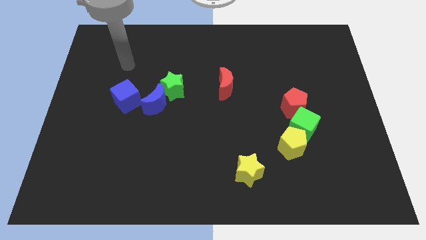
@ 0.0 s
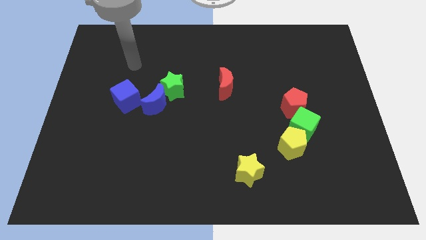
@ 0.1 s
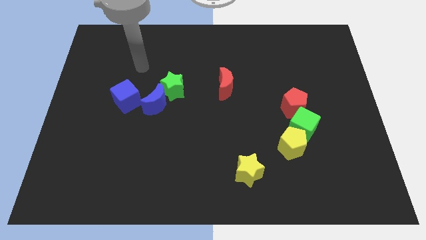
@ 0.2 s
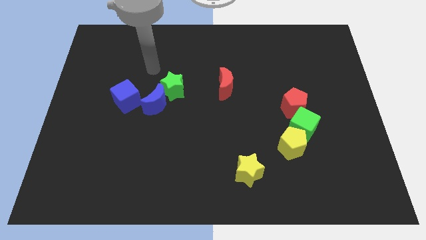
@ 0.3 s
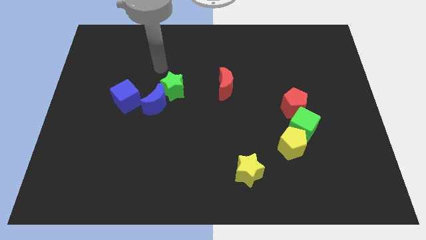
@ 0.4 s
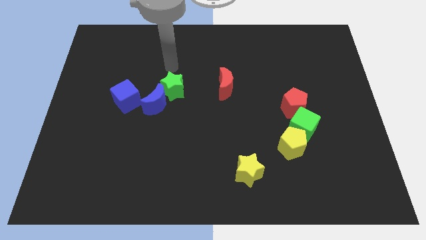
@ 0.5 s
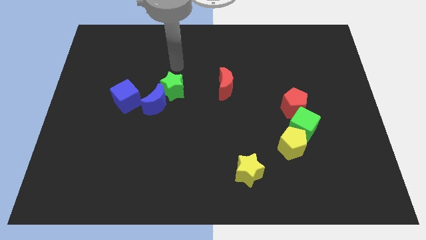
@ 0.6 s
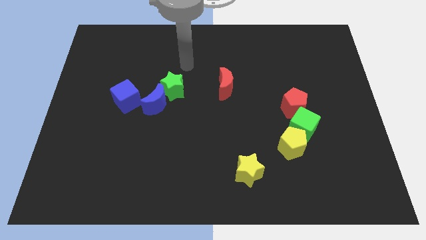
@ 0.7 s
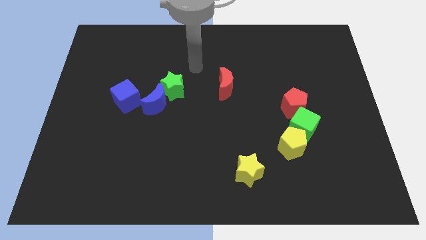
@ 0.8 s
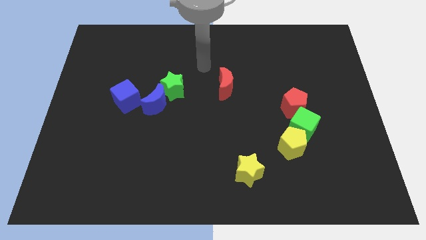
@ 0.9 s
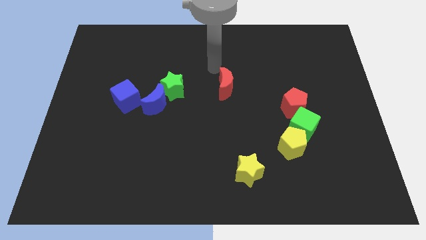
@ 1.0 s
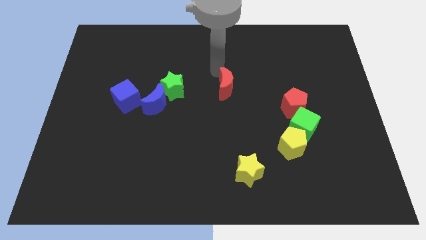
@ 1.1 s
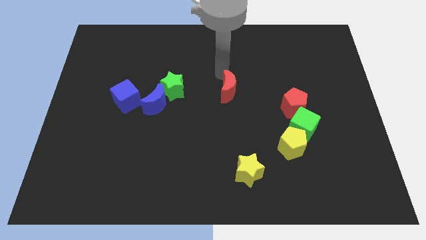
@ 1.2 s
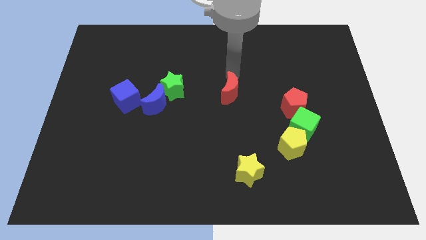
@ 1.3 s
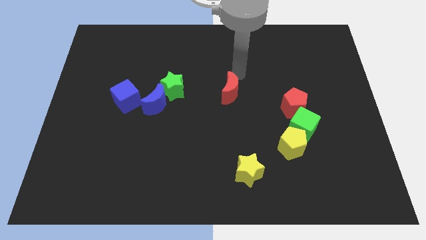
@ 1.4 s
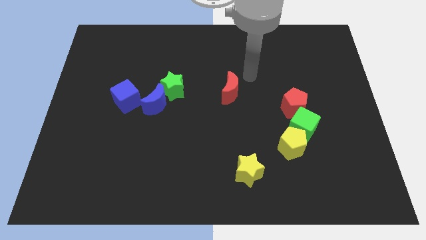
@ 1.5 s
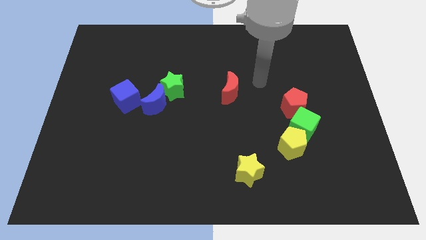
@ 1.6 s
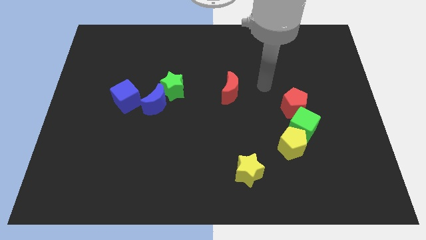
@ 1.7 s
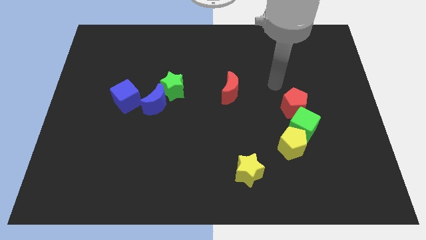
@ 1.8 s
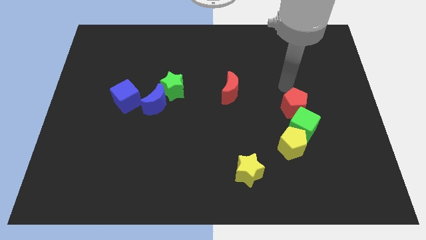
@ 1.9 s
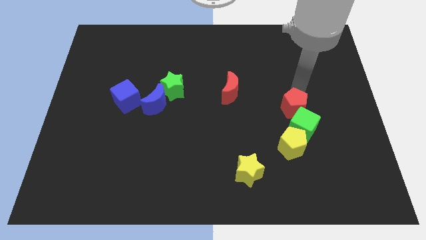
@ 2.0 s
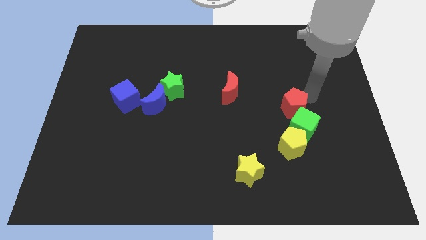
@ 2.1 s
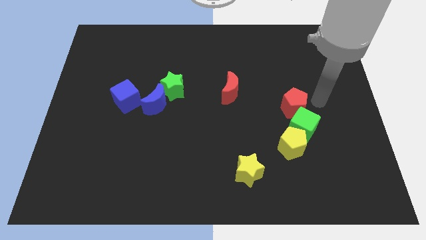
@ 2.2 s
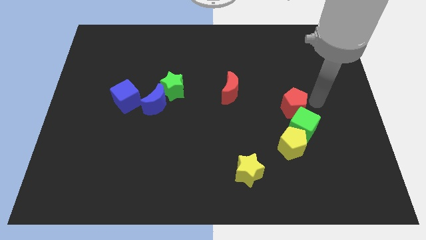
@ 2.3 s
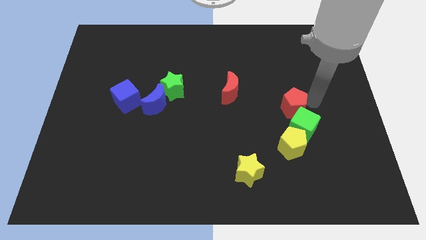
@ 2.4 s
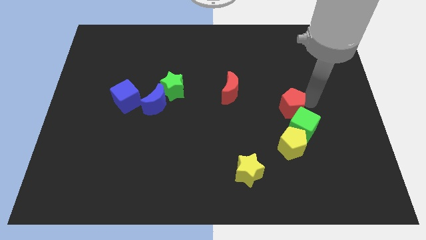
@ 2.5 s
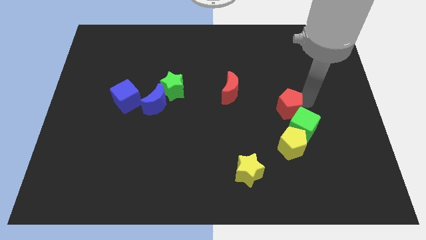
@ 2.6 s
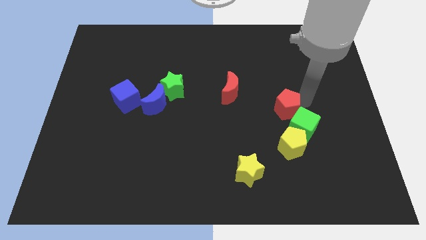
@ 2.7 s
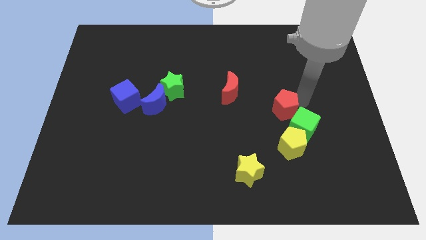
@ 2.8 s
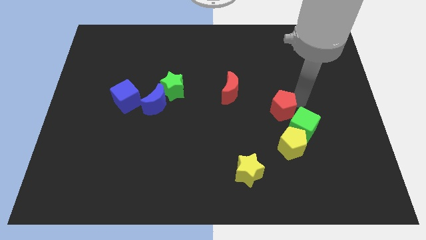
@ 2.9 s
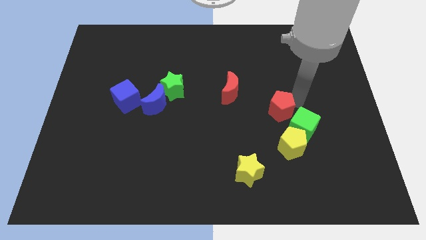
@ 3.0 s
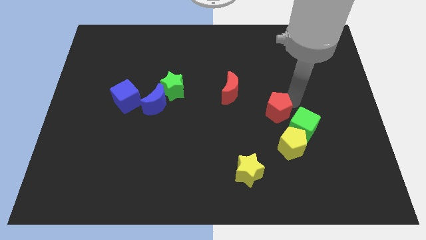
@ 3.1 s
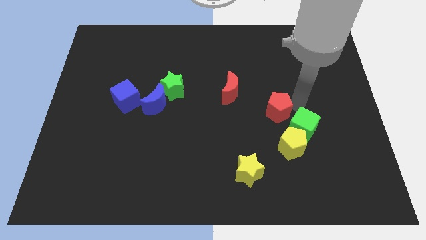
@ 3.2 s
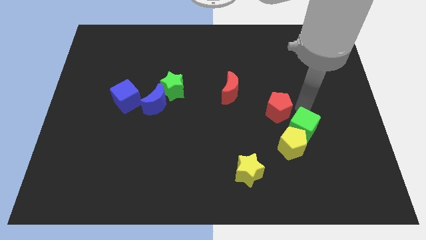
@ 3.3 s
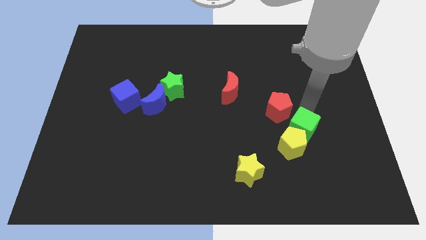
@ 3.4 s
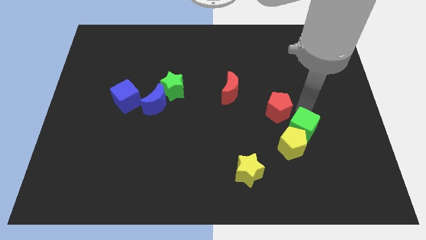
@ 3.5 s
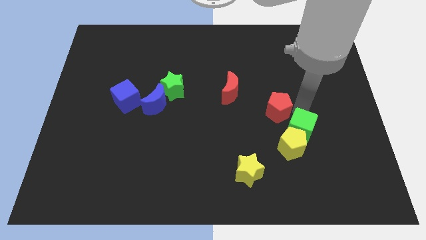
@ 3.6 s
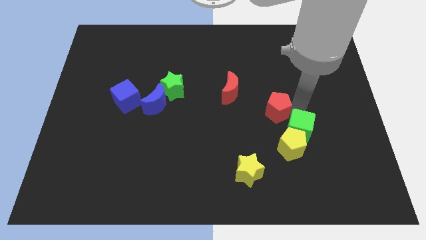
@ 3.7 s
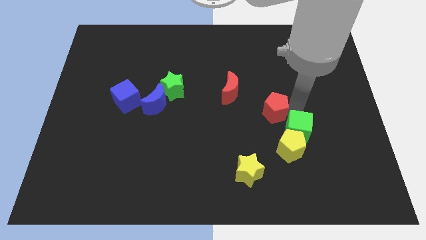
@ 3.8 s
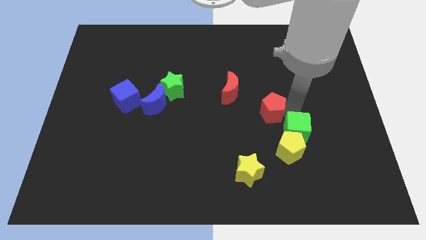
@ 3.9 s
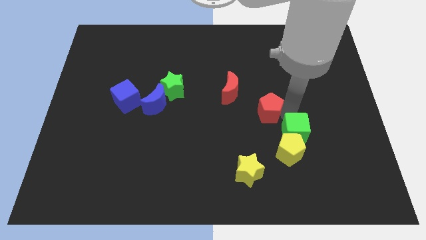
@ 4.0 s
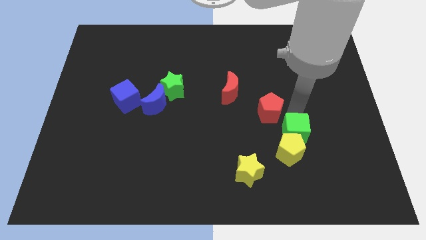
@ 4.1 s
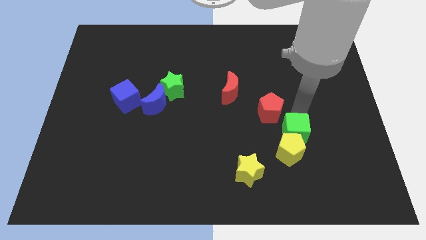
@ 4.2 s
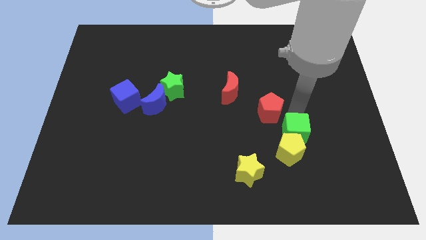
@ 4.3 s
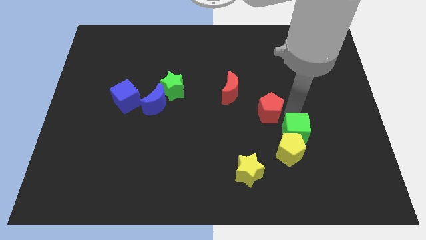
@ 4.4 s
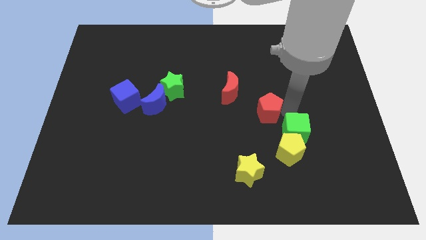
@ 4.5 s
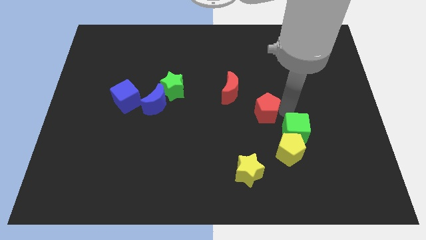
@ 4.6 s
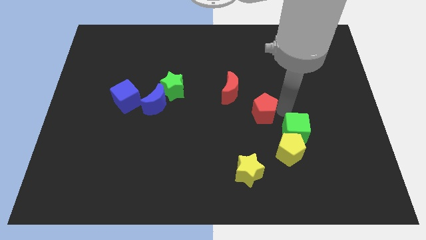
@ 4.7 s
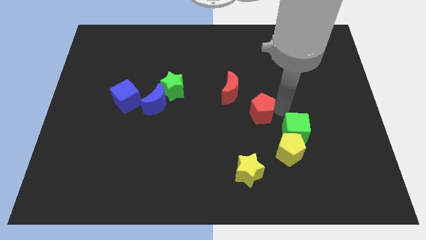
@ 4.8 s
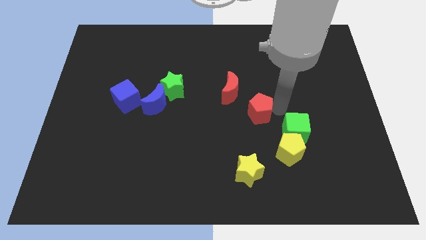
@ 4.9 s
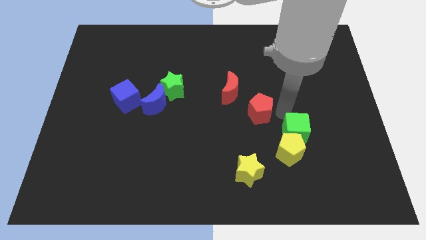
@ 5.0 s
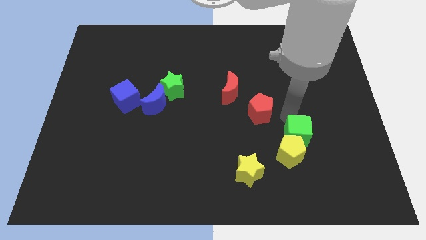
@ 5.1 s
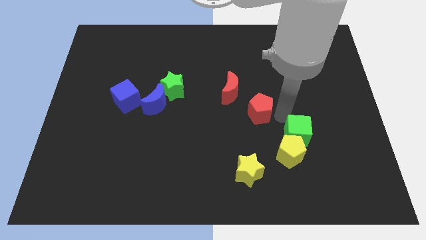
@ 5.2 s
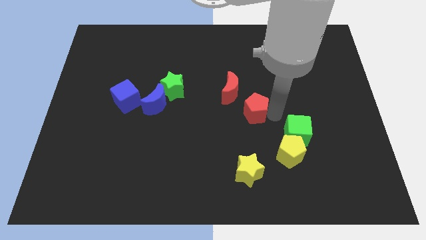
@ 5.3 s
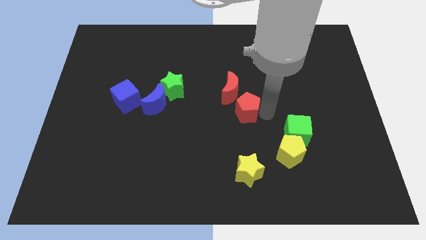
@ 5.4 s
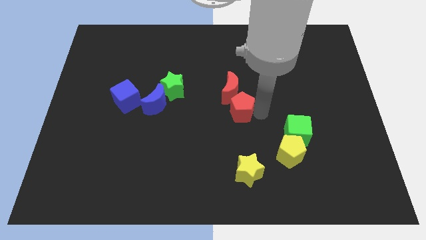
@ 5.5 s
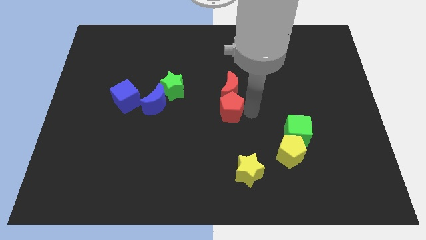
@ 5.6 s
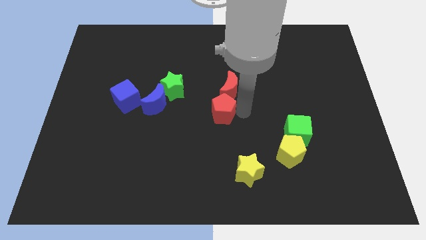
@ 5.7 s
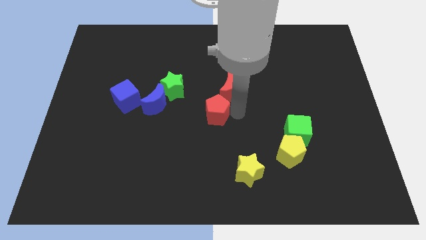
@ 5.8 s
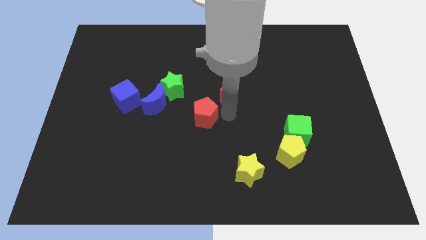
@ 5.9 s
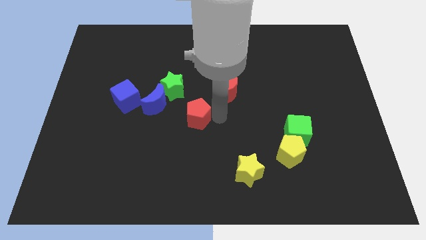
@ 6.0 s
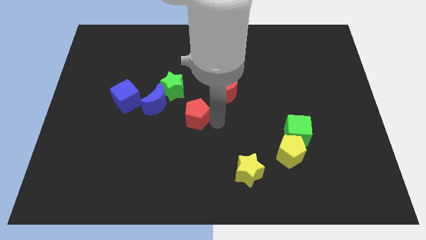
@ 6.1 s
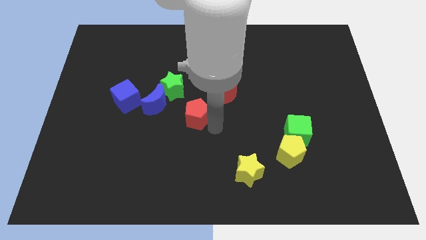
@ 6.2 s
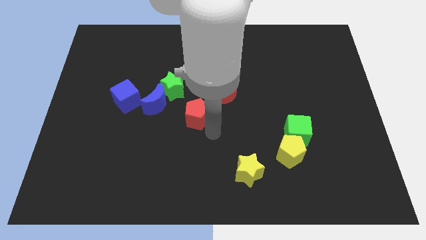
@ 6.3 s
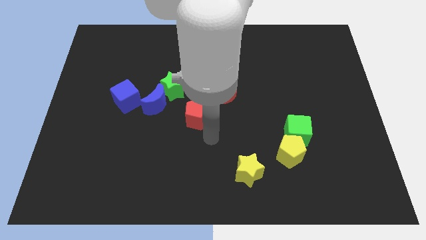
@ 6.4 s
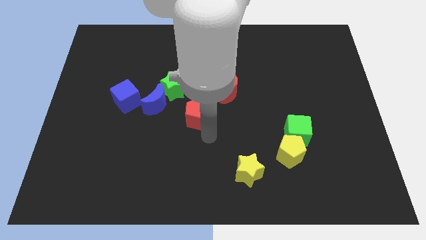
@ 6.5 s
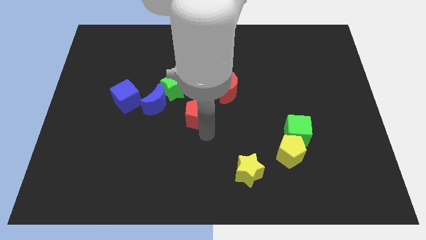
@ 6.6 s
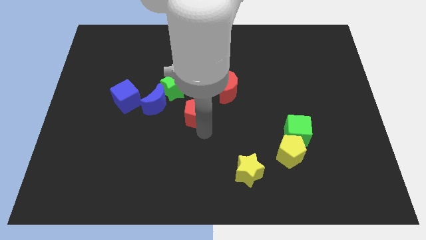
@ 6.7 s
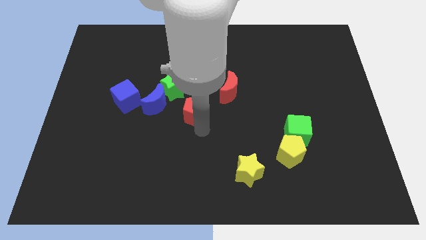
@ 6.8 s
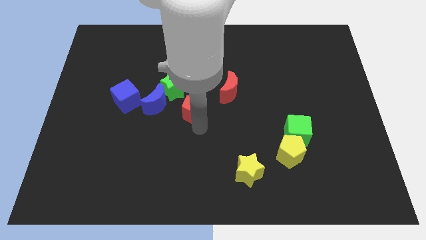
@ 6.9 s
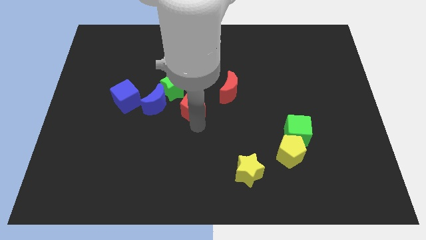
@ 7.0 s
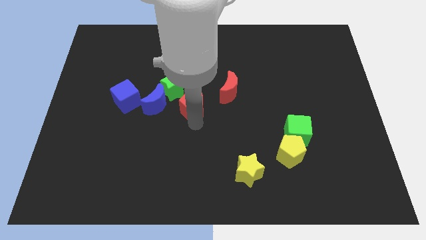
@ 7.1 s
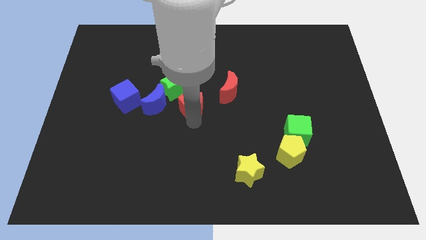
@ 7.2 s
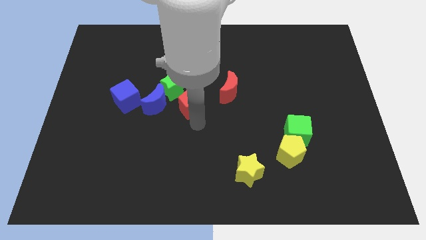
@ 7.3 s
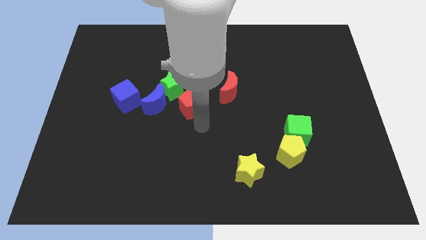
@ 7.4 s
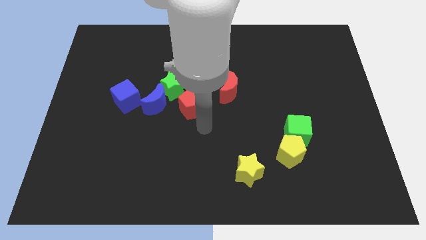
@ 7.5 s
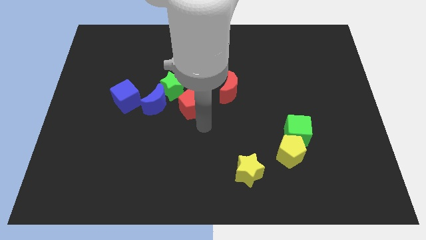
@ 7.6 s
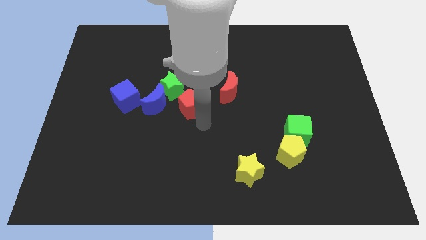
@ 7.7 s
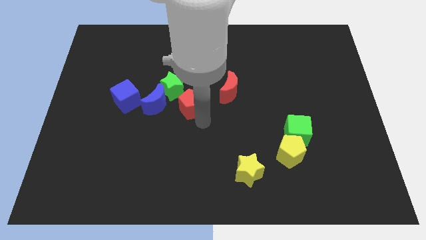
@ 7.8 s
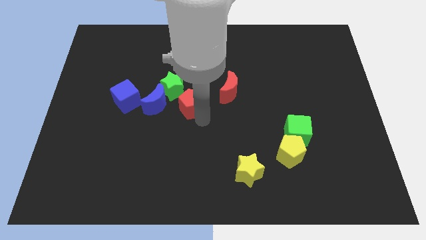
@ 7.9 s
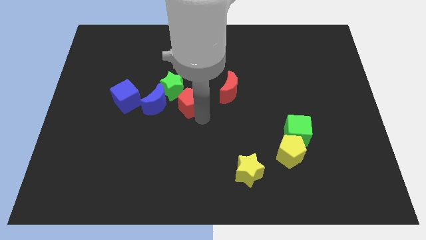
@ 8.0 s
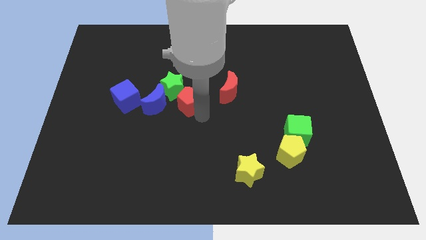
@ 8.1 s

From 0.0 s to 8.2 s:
move the red pentagon towards the green star
